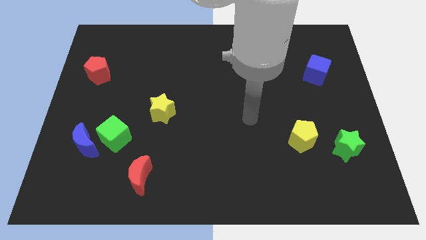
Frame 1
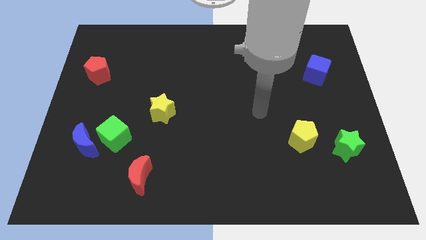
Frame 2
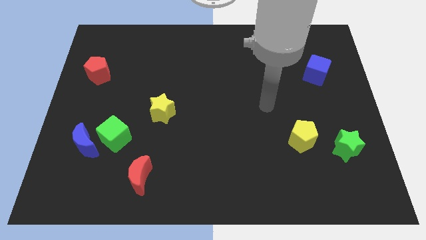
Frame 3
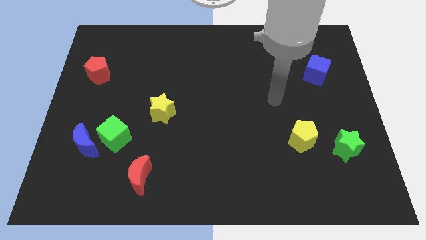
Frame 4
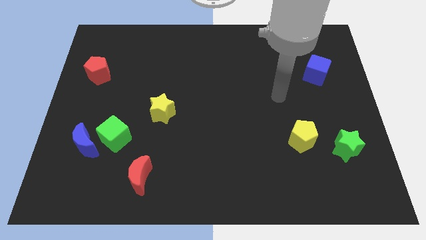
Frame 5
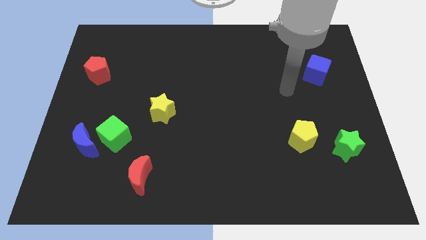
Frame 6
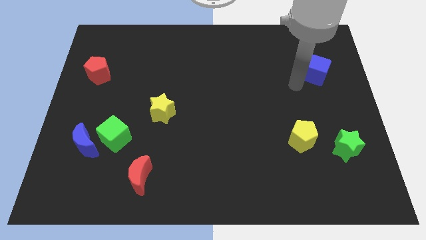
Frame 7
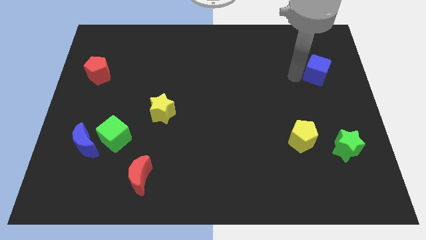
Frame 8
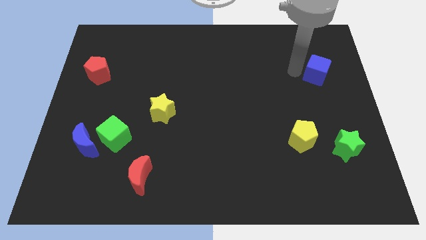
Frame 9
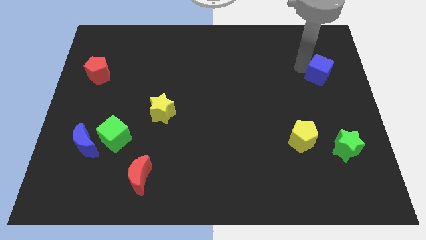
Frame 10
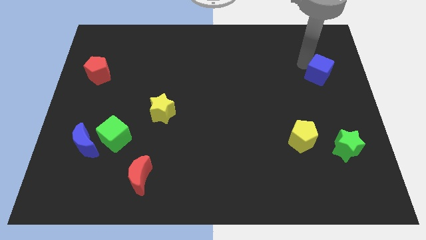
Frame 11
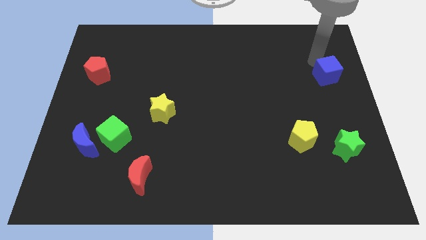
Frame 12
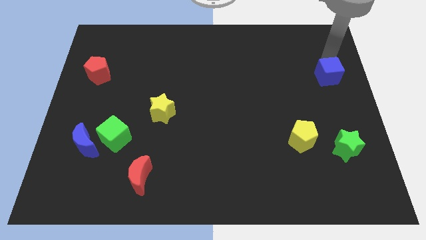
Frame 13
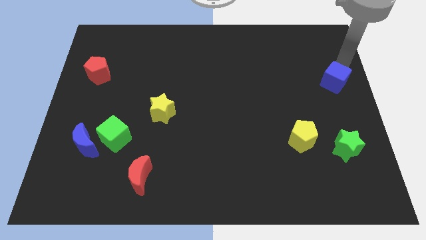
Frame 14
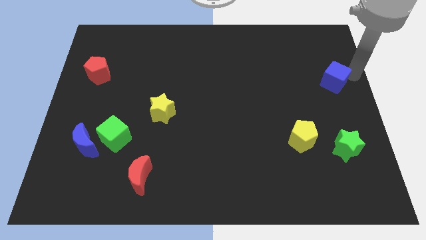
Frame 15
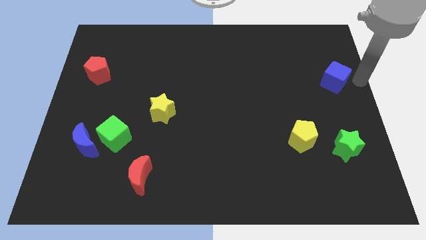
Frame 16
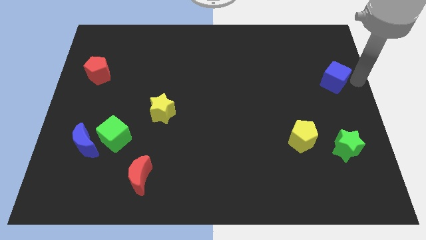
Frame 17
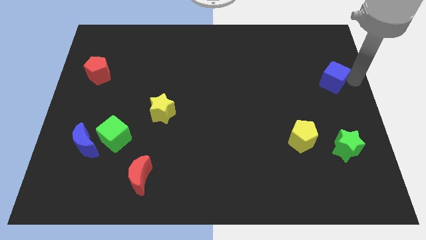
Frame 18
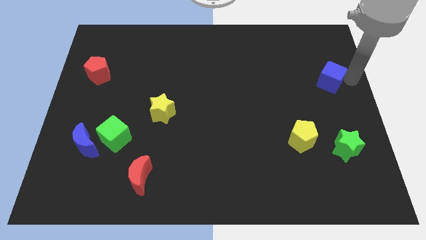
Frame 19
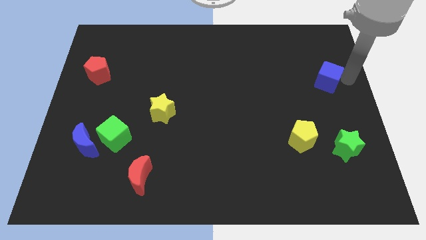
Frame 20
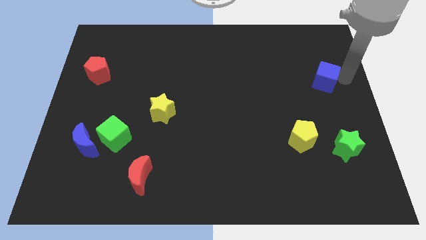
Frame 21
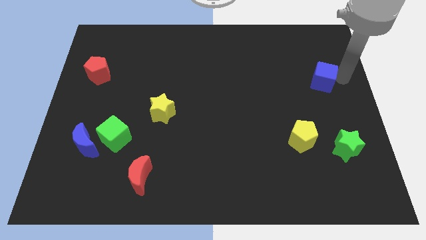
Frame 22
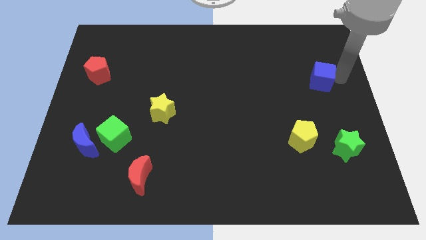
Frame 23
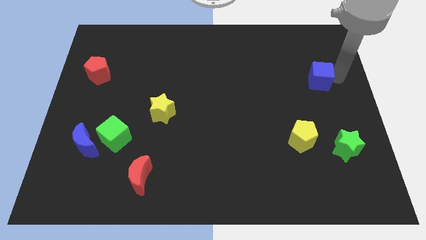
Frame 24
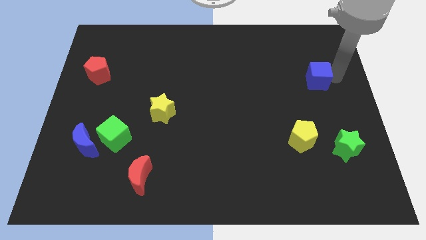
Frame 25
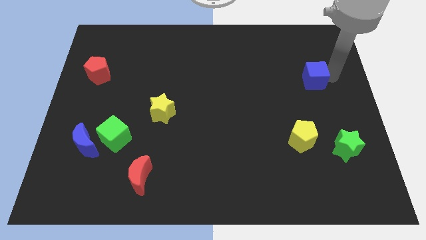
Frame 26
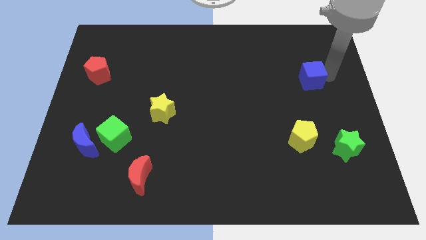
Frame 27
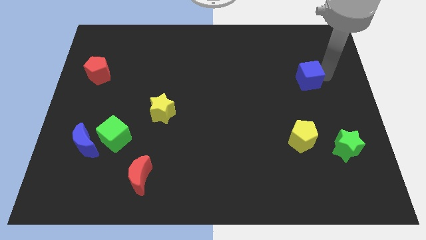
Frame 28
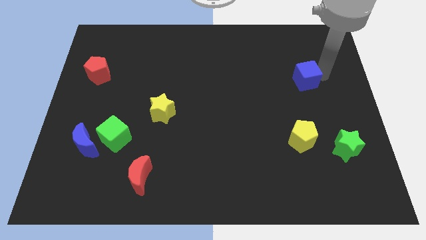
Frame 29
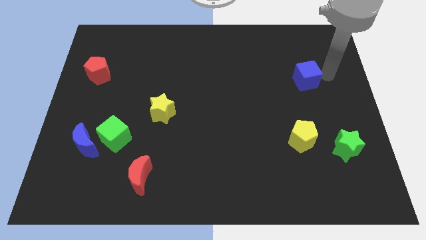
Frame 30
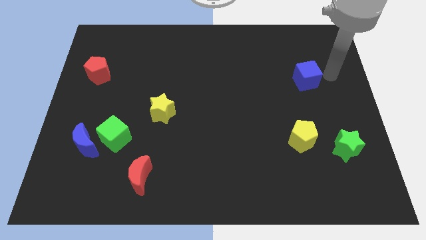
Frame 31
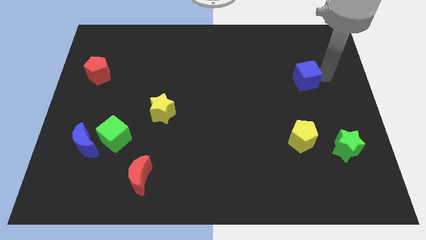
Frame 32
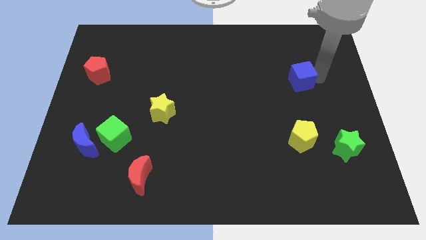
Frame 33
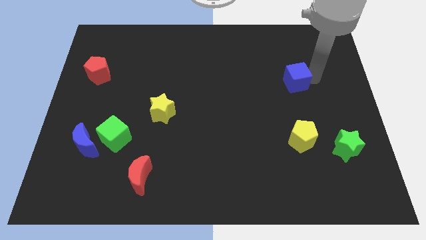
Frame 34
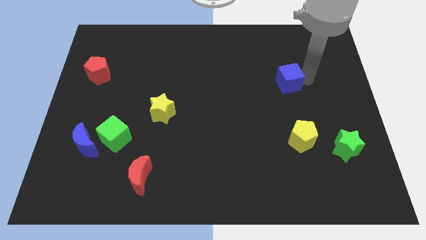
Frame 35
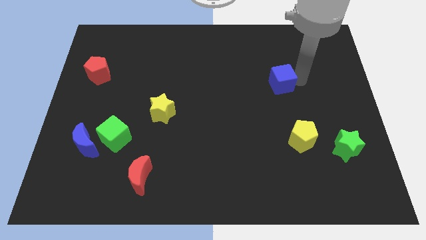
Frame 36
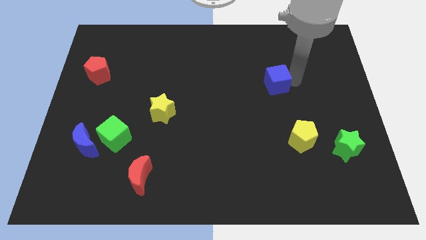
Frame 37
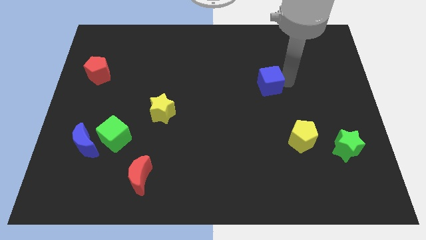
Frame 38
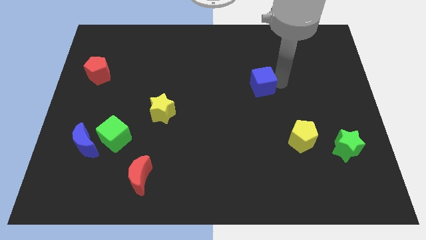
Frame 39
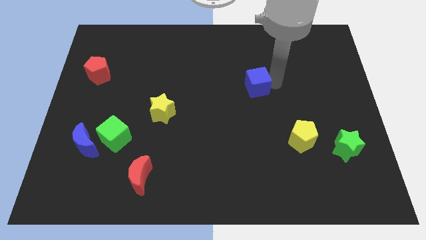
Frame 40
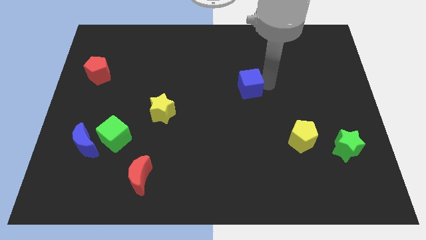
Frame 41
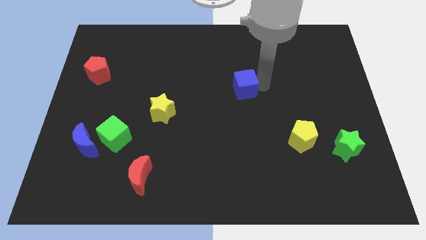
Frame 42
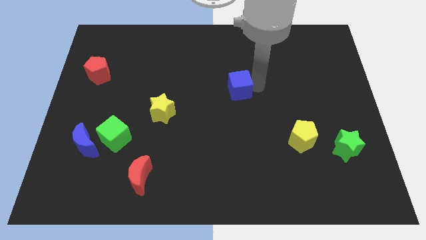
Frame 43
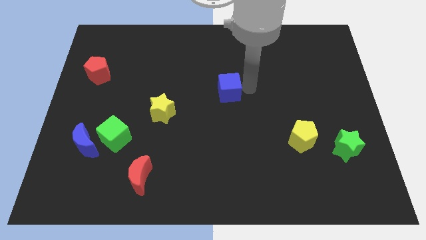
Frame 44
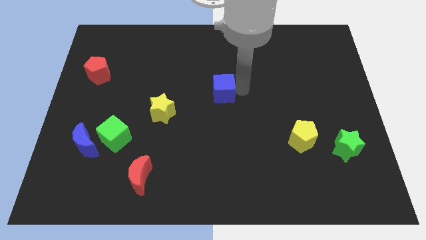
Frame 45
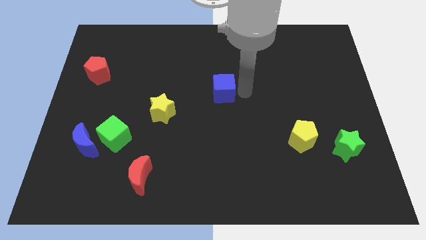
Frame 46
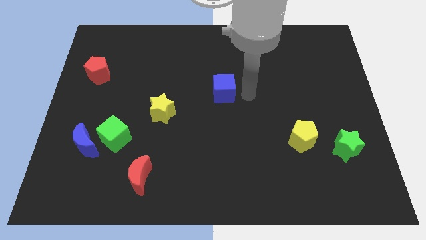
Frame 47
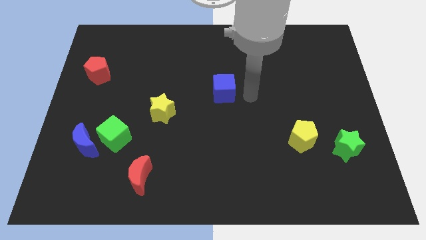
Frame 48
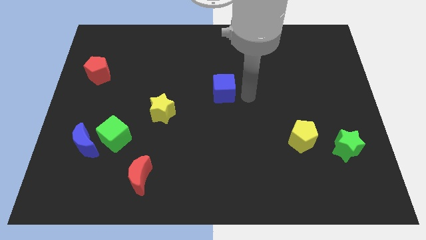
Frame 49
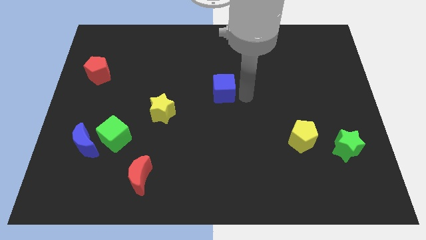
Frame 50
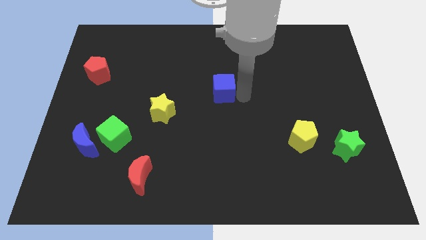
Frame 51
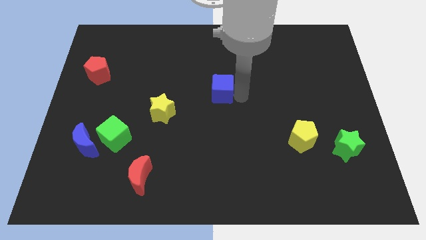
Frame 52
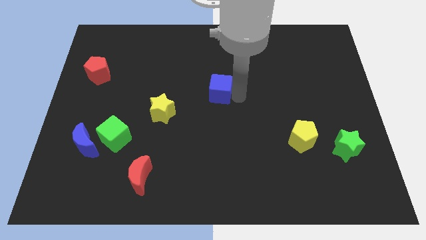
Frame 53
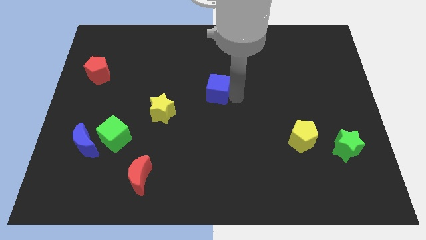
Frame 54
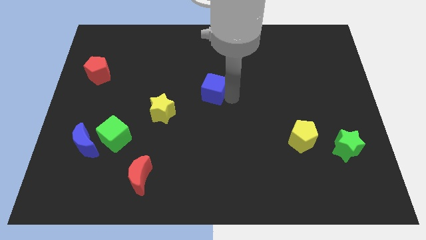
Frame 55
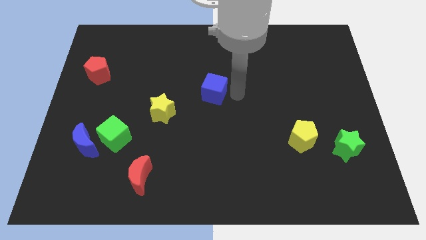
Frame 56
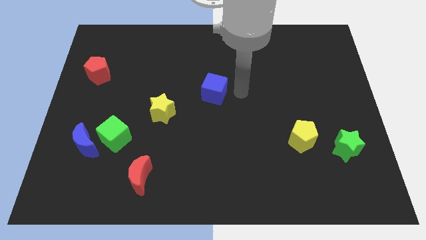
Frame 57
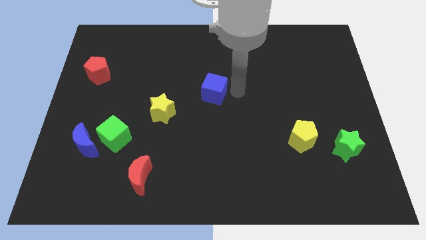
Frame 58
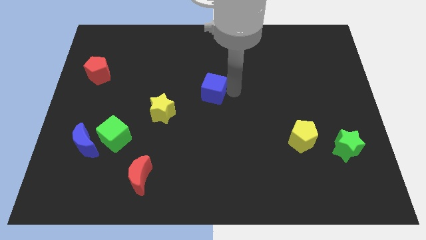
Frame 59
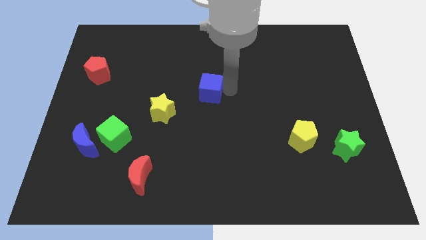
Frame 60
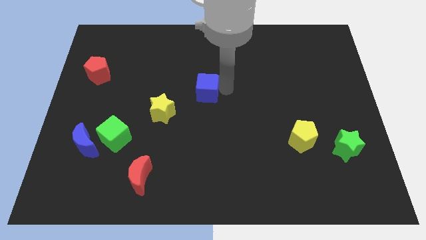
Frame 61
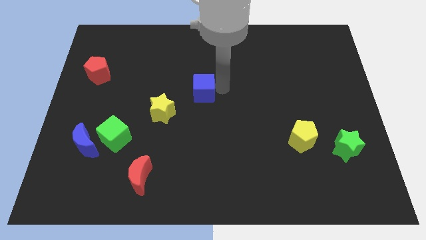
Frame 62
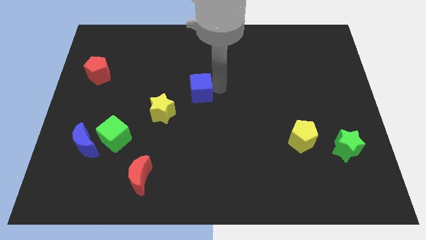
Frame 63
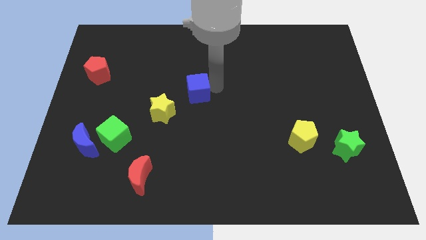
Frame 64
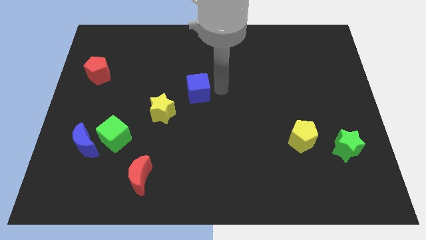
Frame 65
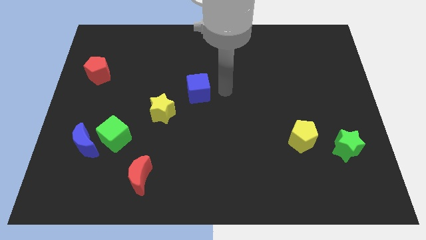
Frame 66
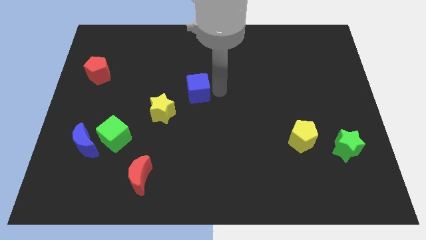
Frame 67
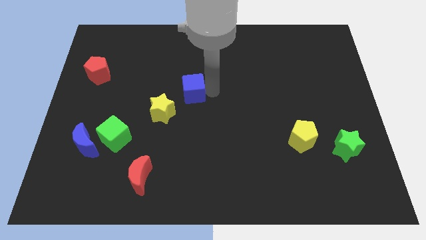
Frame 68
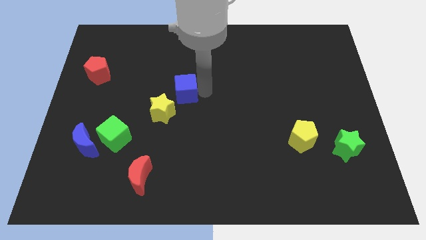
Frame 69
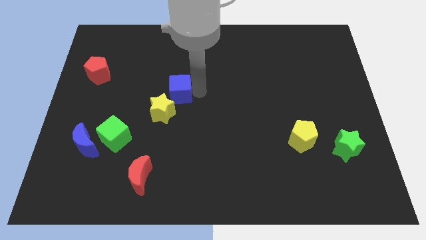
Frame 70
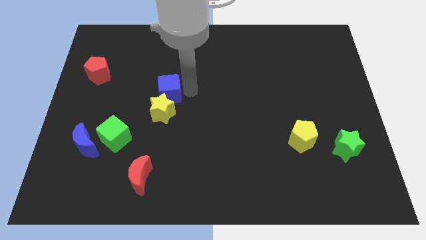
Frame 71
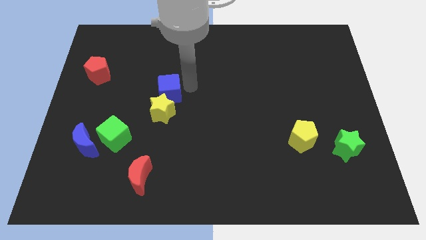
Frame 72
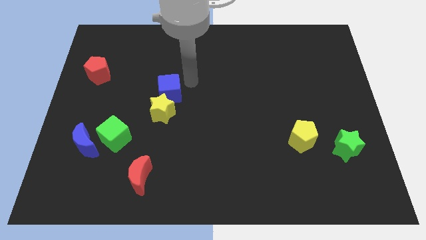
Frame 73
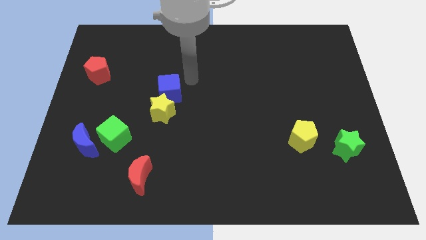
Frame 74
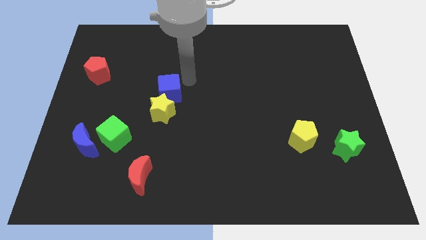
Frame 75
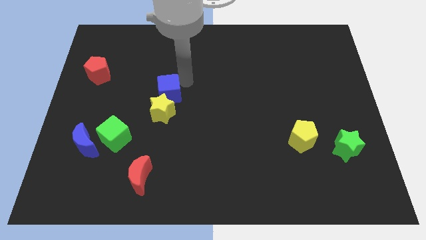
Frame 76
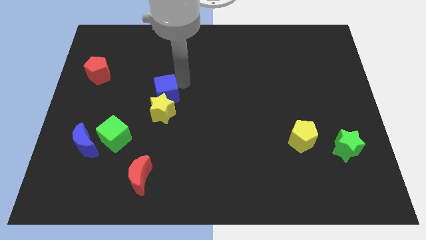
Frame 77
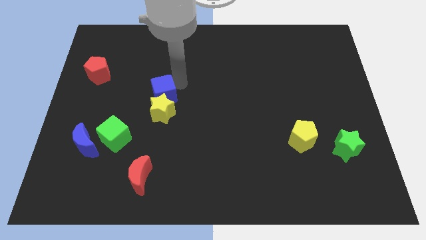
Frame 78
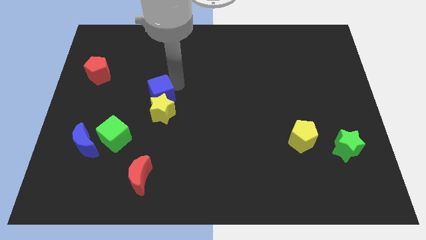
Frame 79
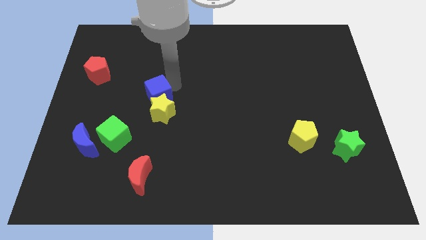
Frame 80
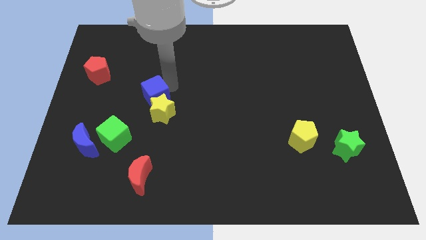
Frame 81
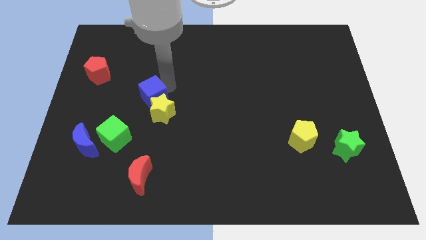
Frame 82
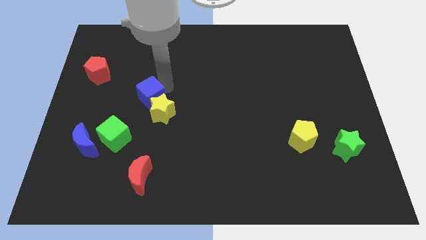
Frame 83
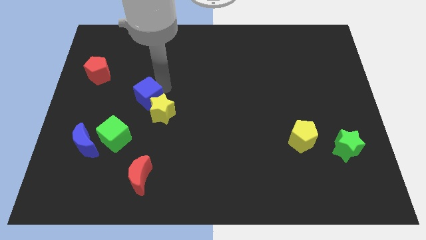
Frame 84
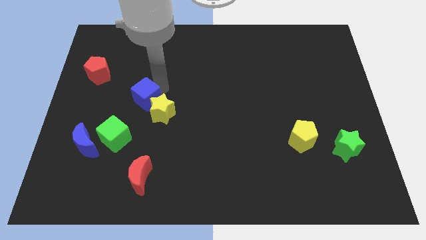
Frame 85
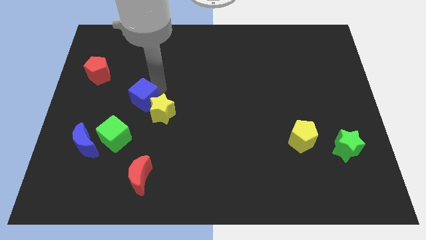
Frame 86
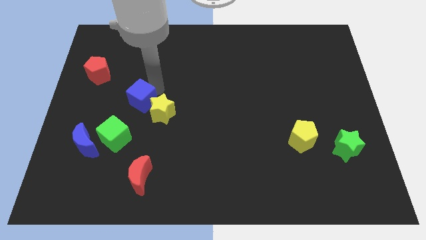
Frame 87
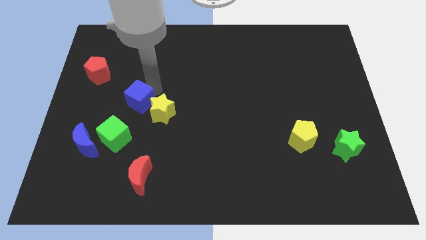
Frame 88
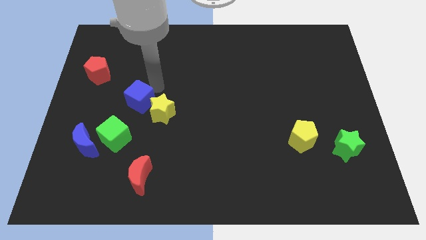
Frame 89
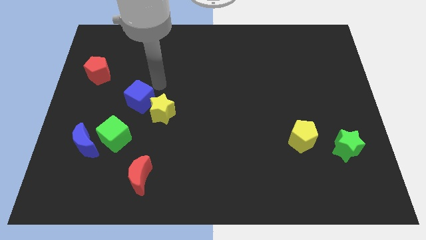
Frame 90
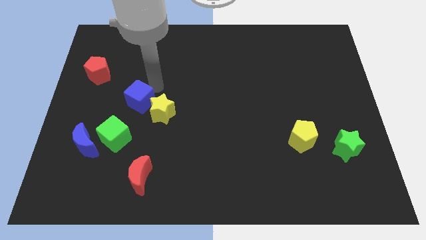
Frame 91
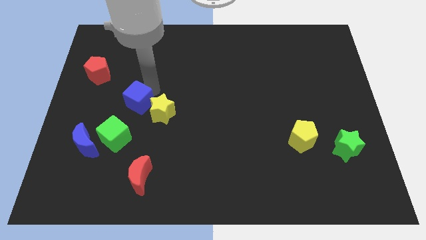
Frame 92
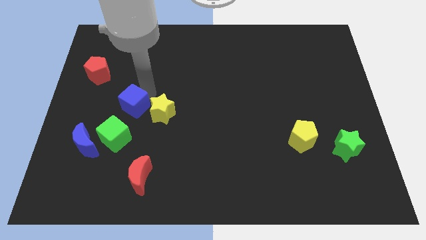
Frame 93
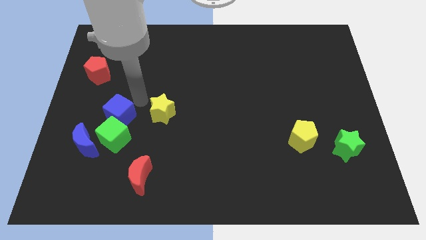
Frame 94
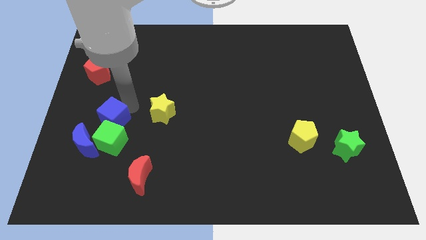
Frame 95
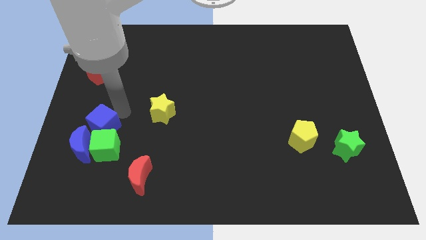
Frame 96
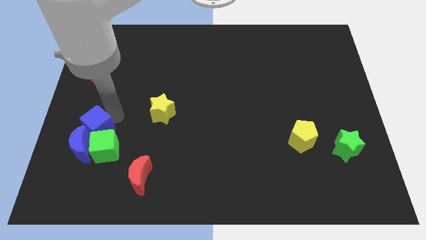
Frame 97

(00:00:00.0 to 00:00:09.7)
move the blue cube towards the blue moon
